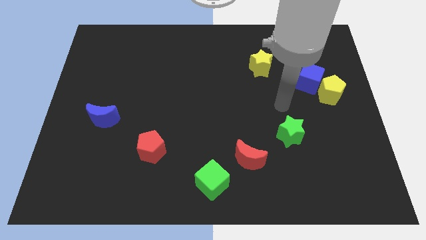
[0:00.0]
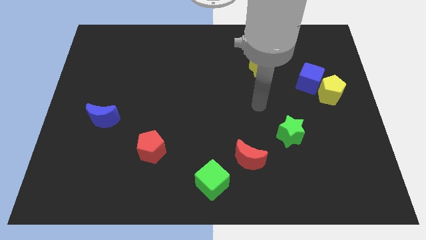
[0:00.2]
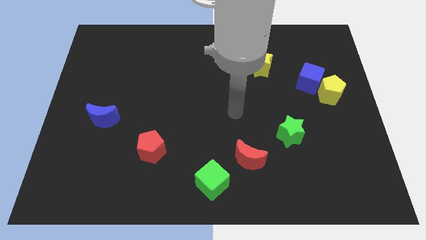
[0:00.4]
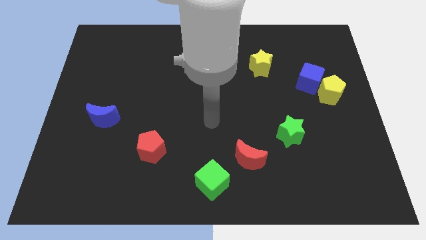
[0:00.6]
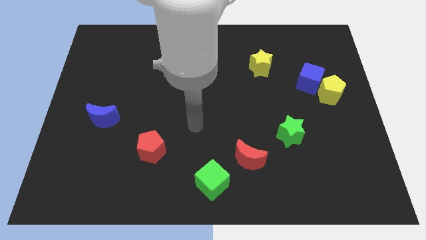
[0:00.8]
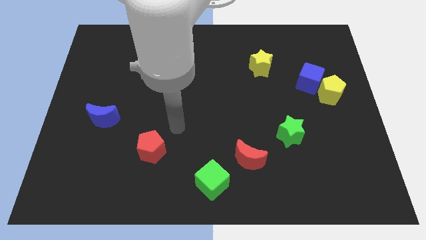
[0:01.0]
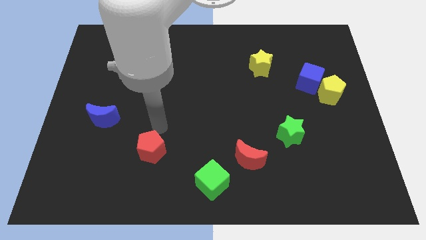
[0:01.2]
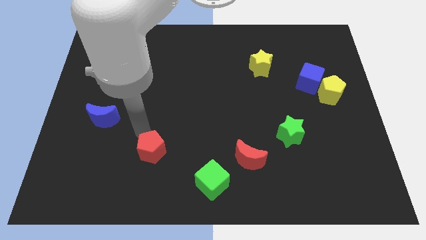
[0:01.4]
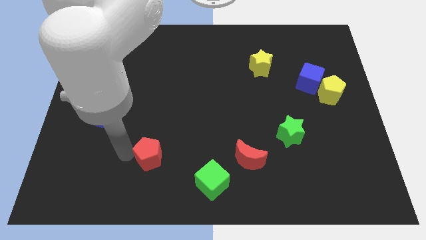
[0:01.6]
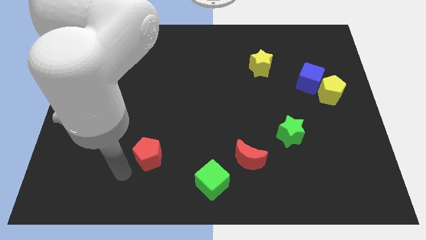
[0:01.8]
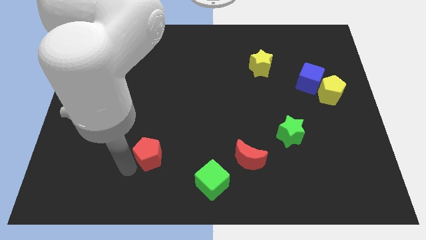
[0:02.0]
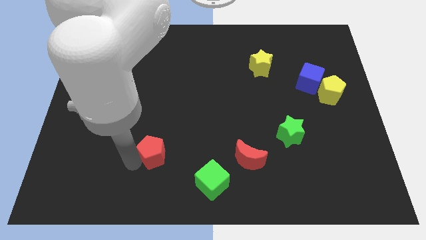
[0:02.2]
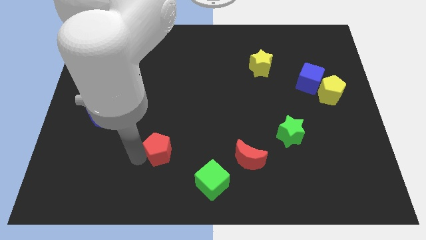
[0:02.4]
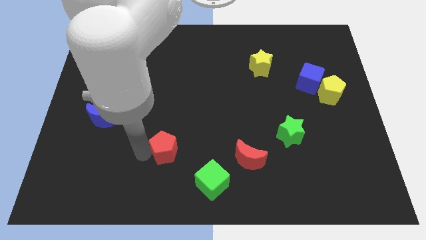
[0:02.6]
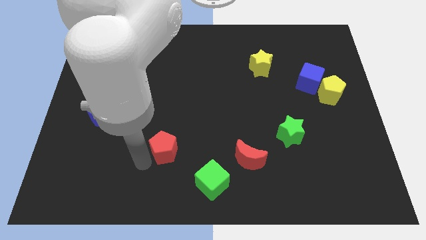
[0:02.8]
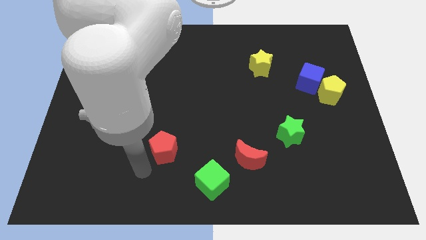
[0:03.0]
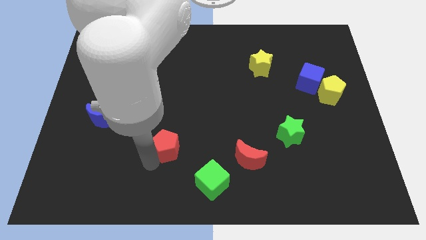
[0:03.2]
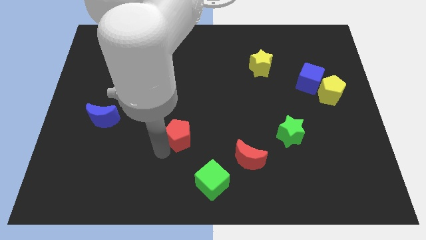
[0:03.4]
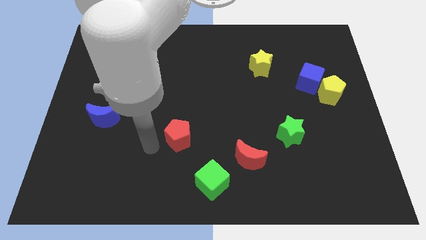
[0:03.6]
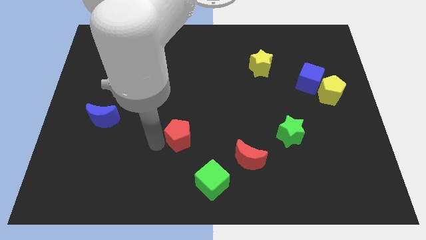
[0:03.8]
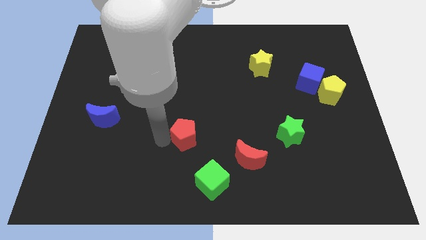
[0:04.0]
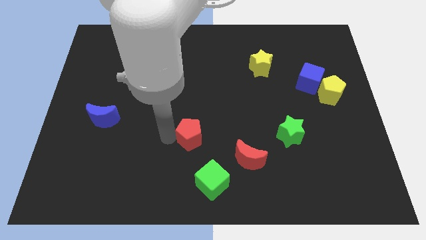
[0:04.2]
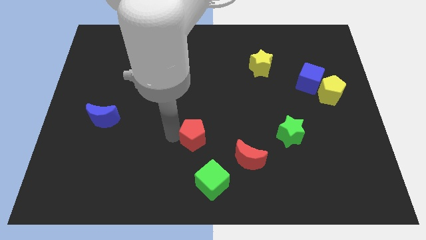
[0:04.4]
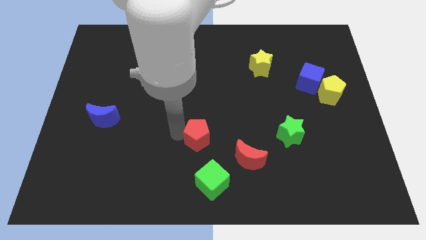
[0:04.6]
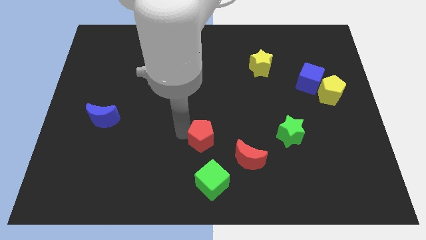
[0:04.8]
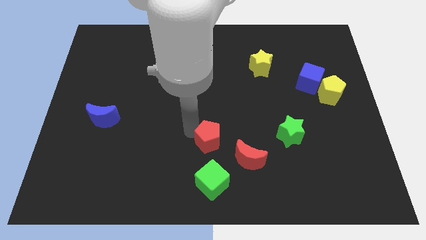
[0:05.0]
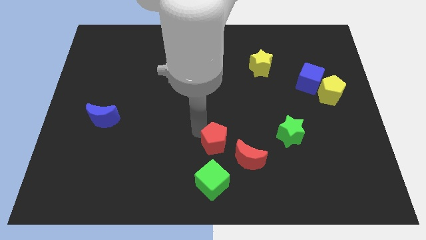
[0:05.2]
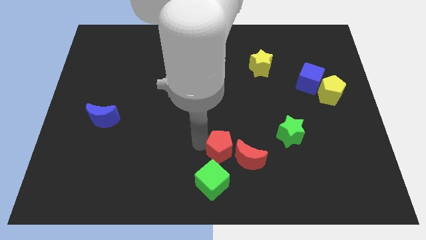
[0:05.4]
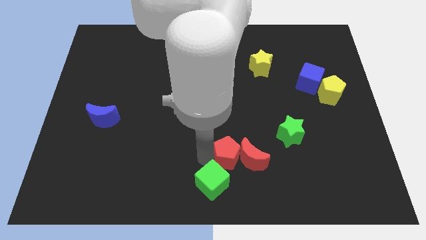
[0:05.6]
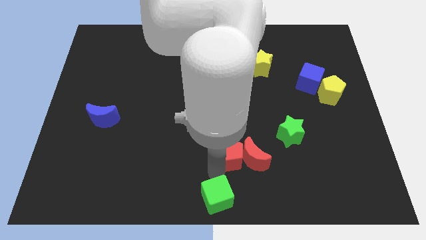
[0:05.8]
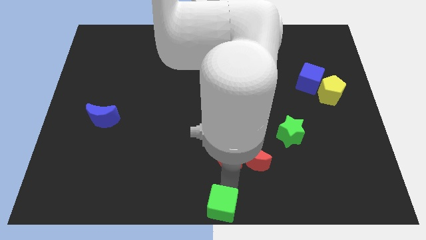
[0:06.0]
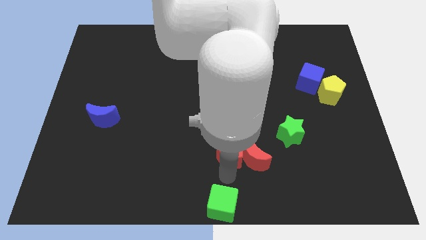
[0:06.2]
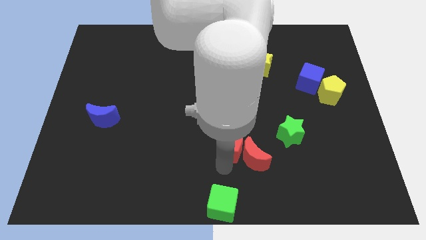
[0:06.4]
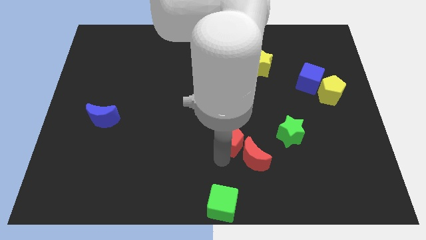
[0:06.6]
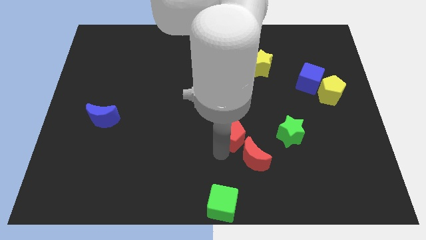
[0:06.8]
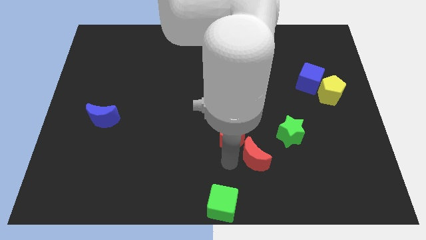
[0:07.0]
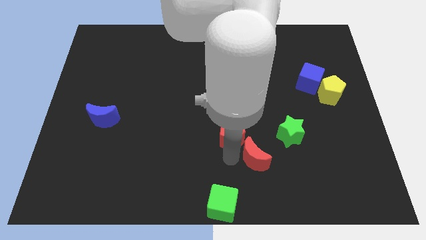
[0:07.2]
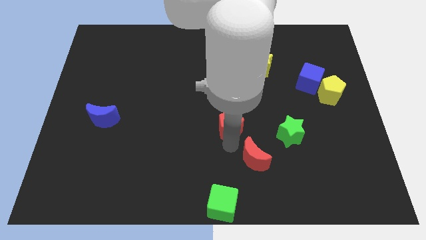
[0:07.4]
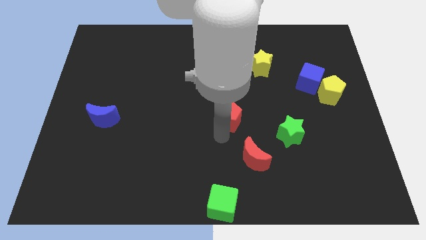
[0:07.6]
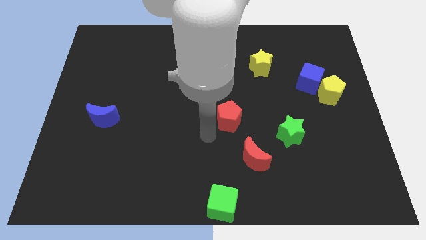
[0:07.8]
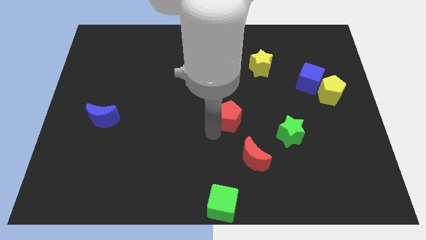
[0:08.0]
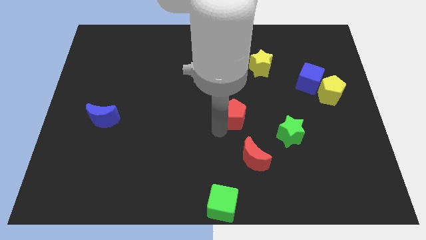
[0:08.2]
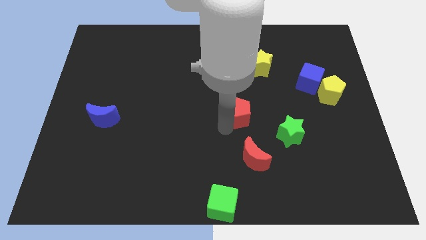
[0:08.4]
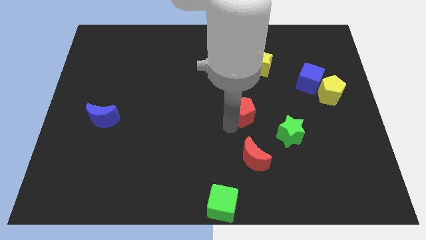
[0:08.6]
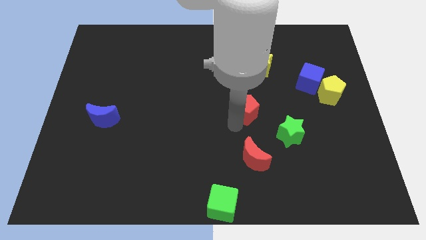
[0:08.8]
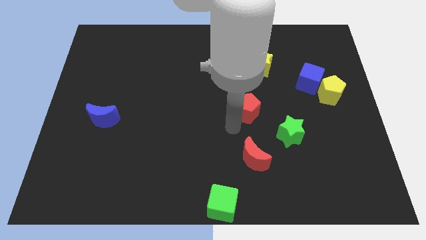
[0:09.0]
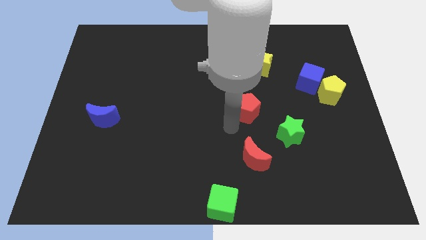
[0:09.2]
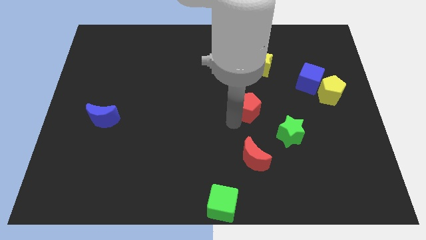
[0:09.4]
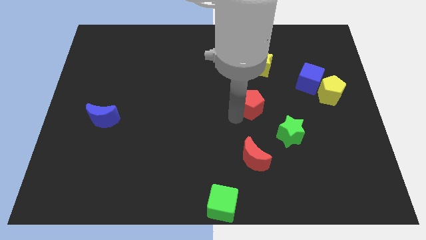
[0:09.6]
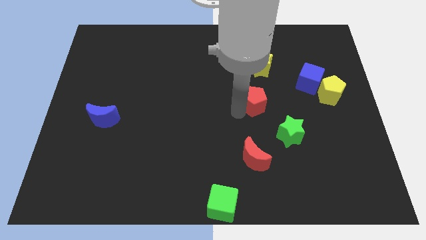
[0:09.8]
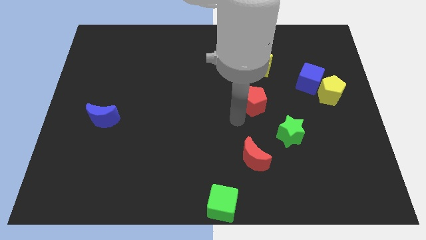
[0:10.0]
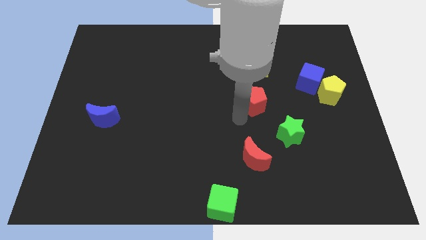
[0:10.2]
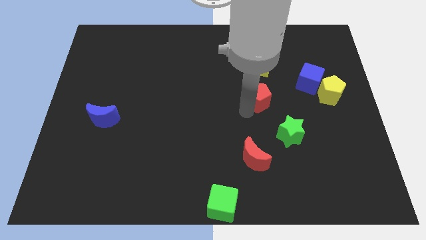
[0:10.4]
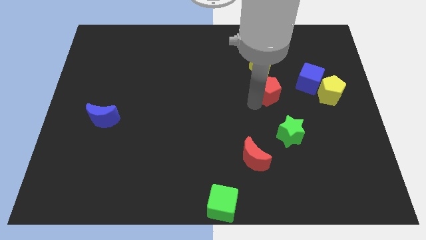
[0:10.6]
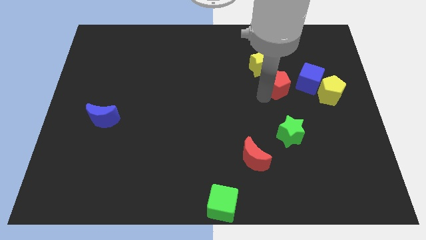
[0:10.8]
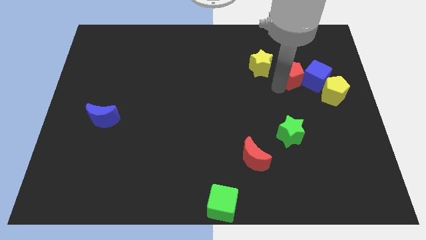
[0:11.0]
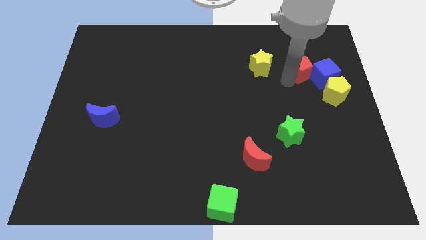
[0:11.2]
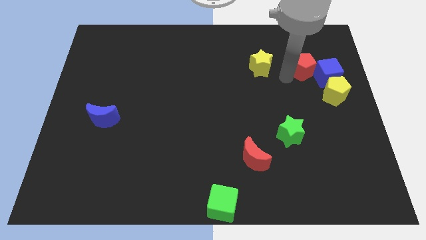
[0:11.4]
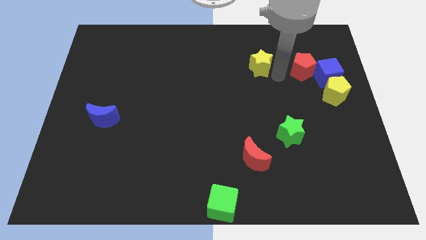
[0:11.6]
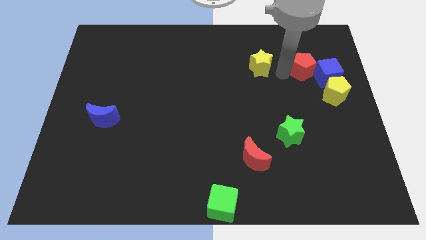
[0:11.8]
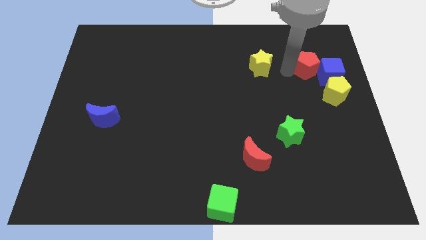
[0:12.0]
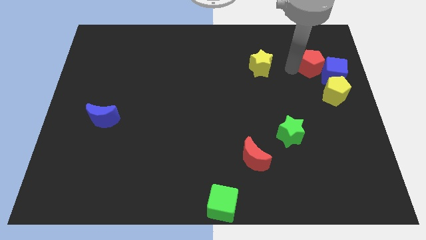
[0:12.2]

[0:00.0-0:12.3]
slide the red pentagon to the top side of the yellow pentagon

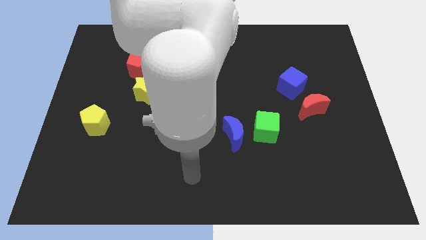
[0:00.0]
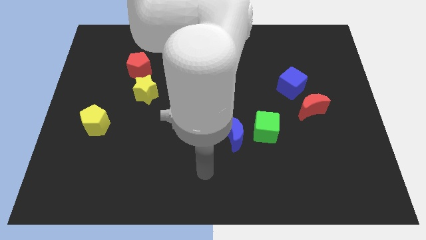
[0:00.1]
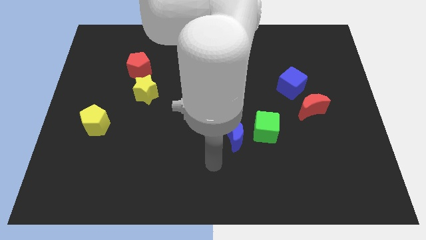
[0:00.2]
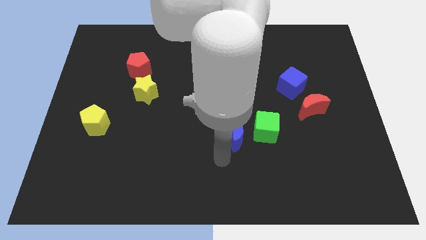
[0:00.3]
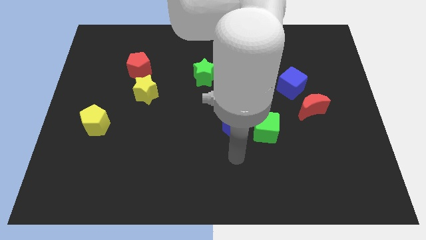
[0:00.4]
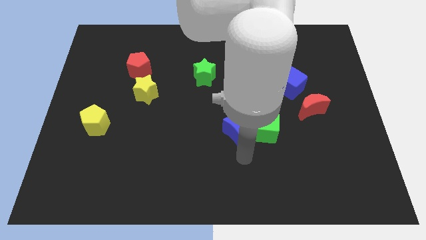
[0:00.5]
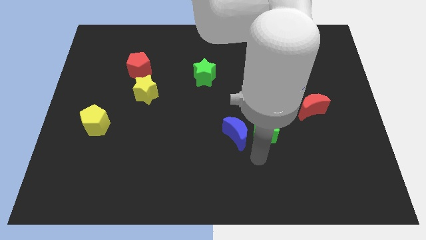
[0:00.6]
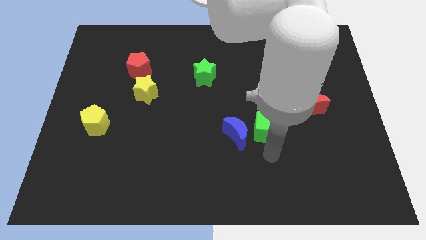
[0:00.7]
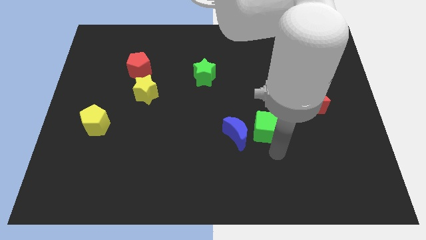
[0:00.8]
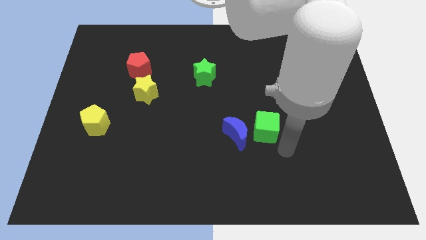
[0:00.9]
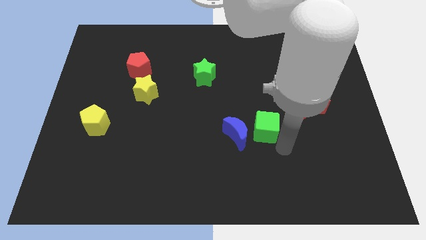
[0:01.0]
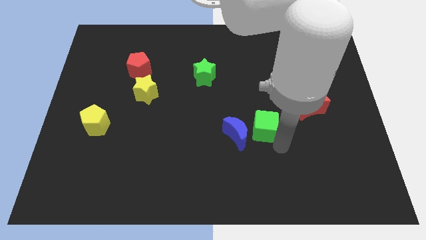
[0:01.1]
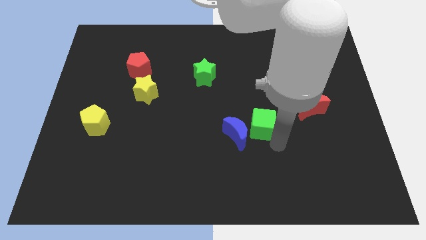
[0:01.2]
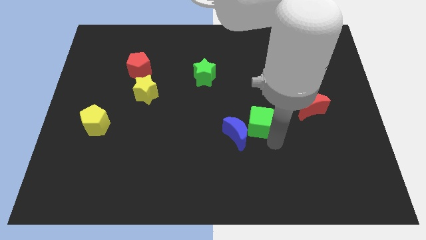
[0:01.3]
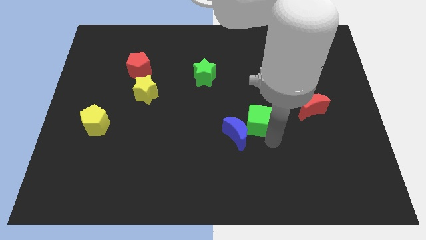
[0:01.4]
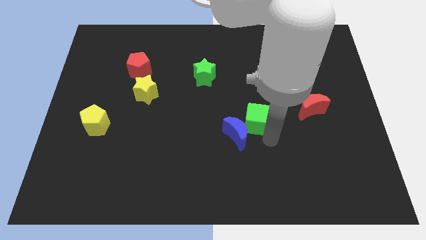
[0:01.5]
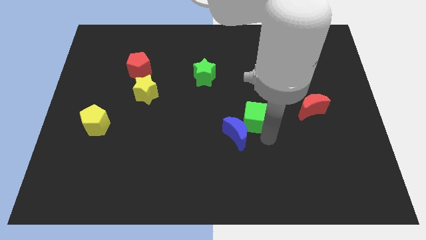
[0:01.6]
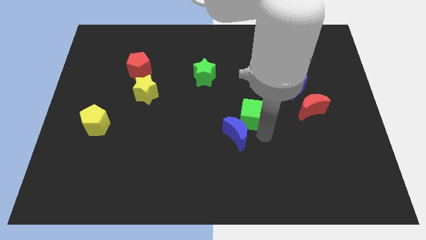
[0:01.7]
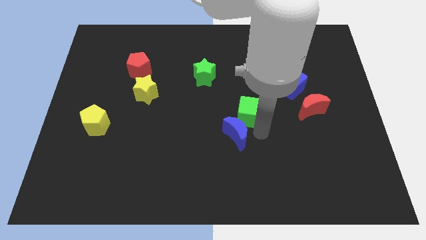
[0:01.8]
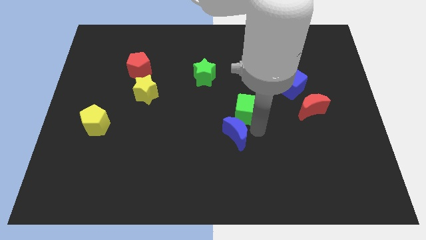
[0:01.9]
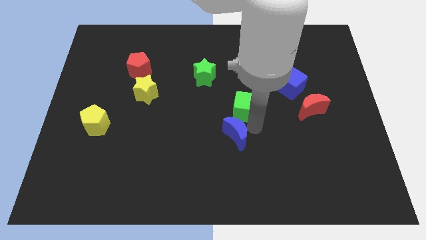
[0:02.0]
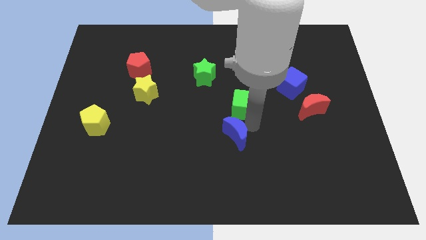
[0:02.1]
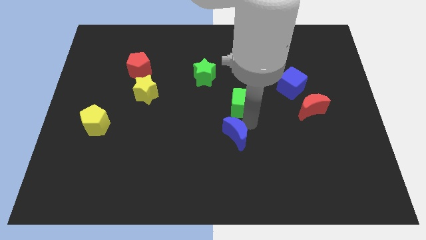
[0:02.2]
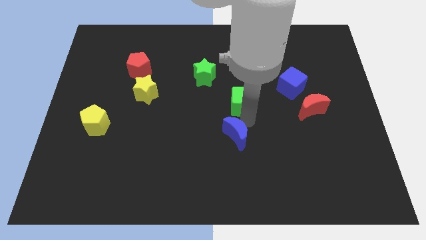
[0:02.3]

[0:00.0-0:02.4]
slide the green cube to the bottom right of the green star
